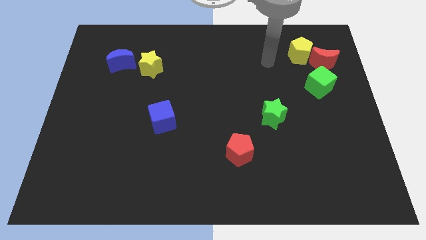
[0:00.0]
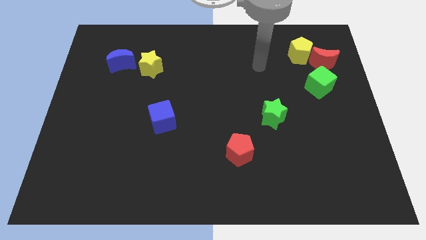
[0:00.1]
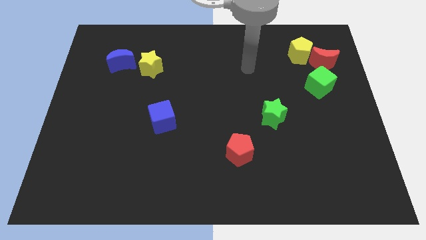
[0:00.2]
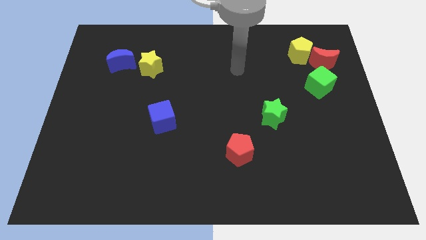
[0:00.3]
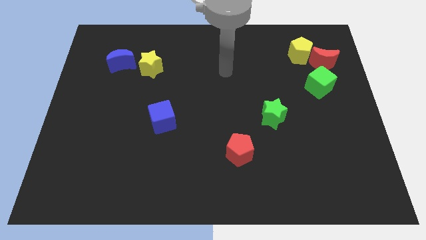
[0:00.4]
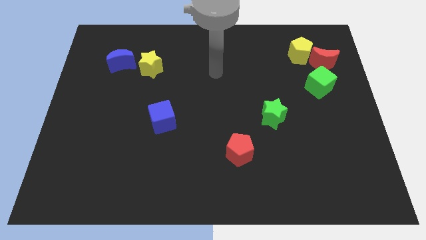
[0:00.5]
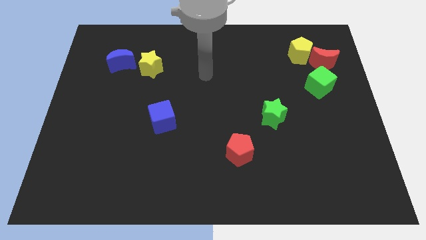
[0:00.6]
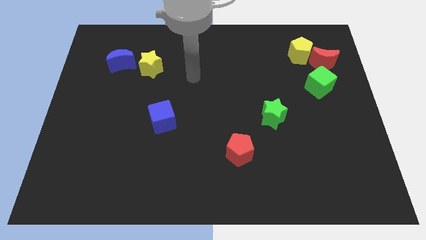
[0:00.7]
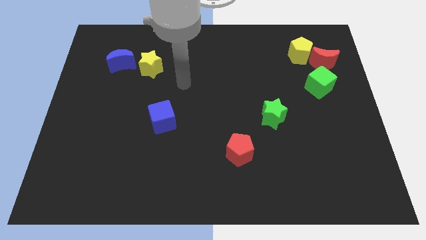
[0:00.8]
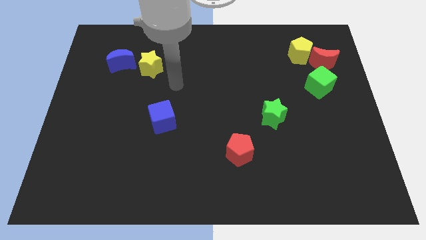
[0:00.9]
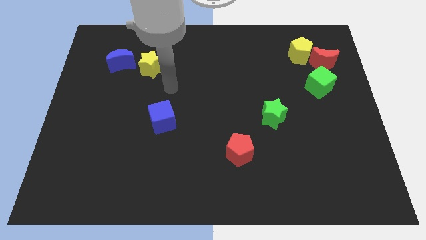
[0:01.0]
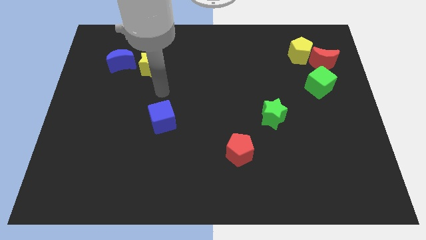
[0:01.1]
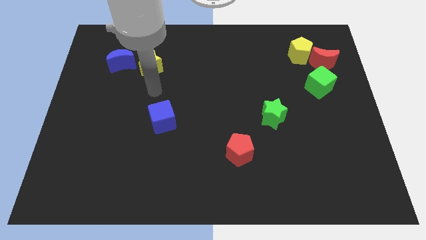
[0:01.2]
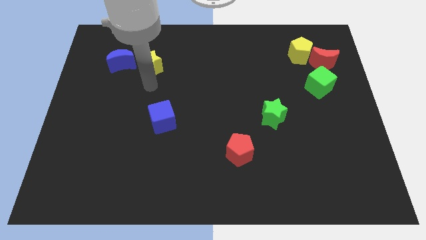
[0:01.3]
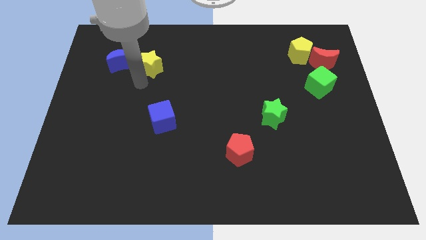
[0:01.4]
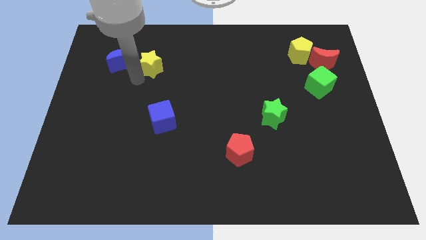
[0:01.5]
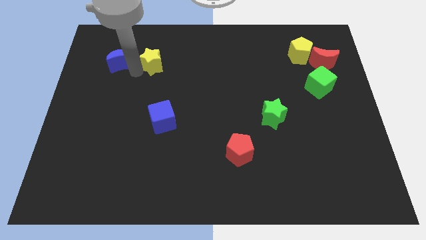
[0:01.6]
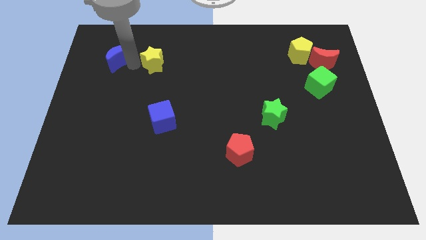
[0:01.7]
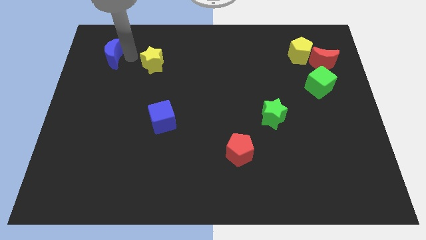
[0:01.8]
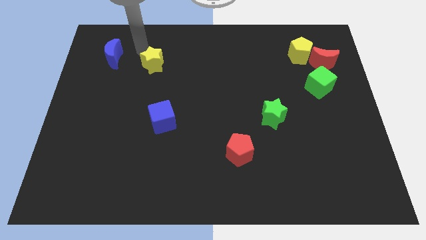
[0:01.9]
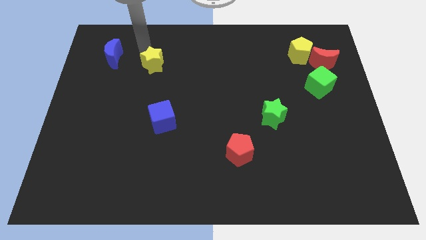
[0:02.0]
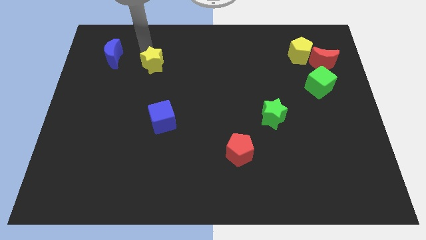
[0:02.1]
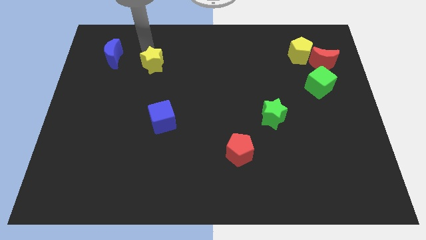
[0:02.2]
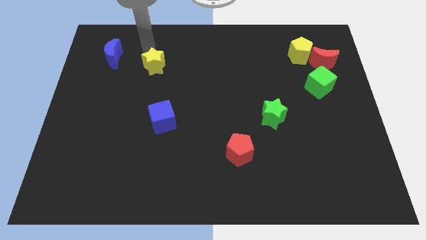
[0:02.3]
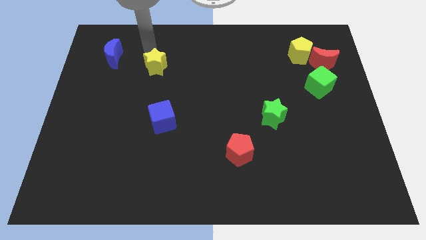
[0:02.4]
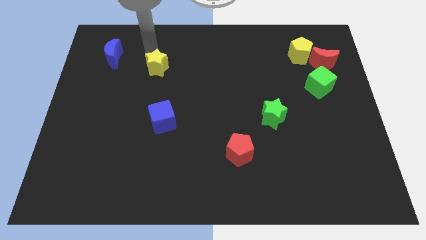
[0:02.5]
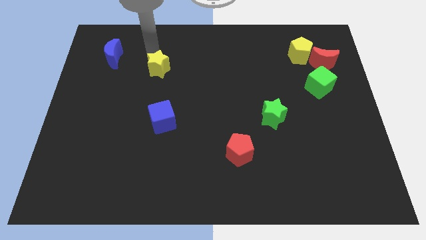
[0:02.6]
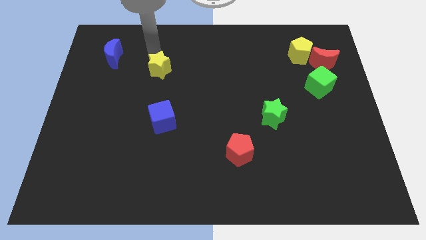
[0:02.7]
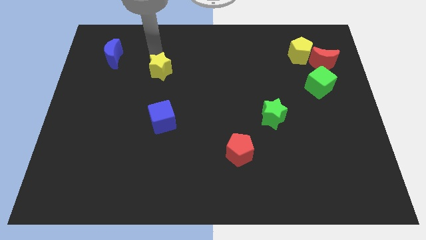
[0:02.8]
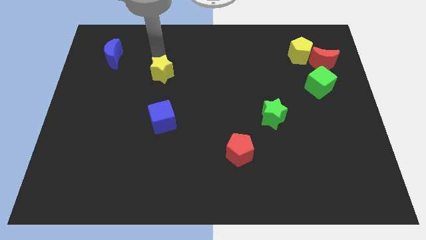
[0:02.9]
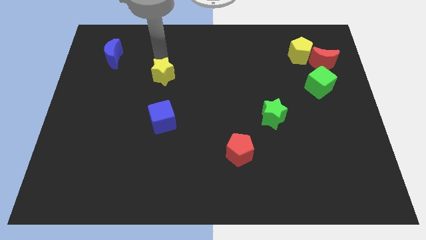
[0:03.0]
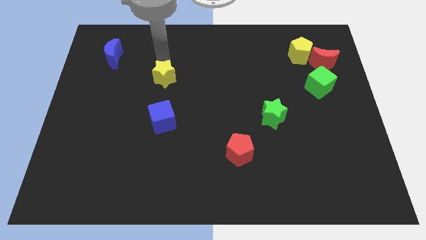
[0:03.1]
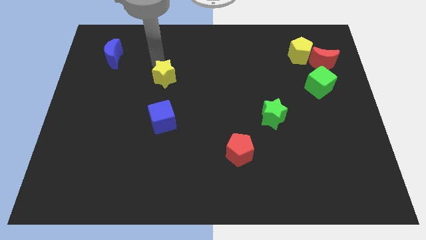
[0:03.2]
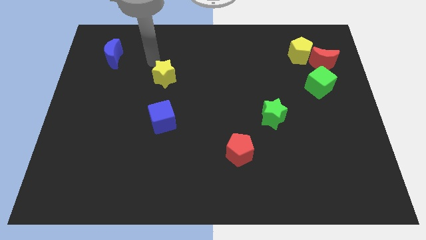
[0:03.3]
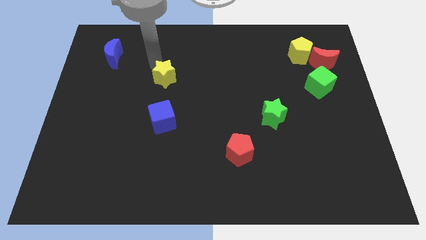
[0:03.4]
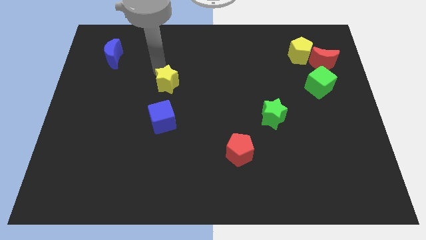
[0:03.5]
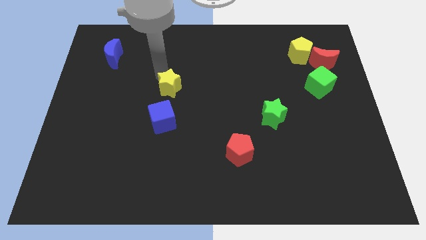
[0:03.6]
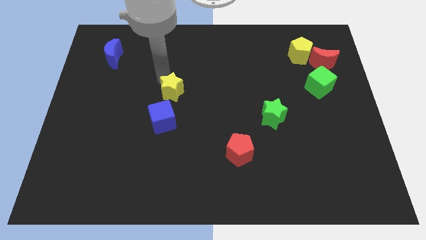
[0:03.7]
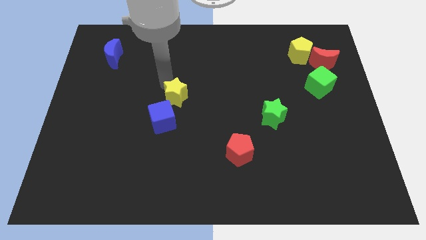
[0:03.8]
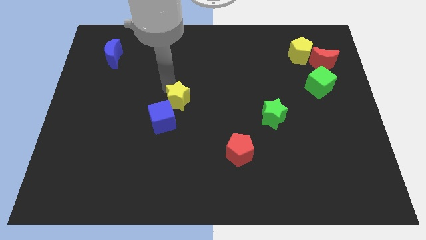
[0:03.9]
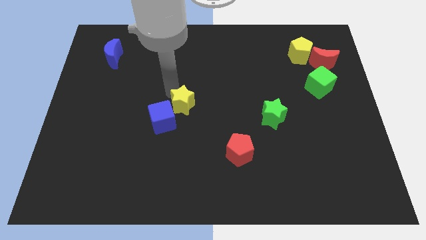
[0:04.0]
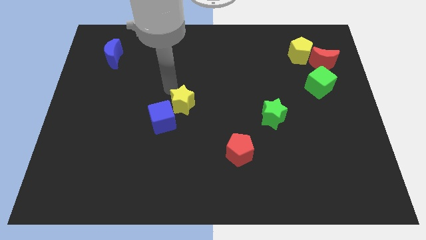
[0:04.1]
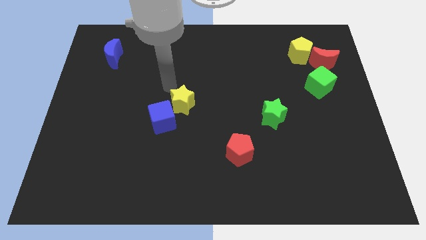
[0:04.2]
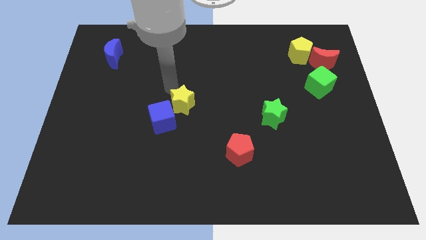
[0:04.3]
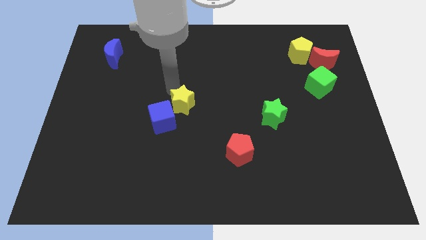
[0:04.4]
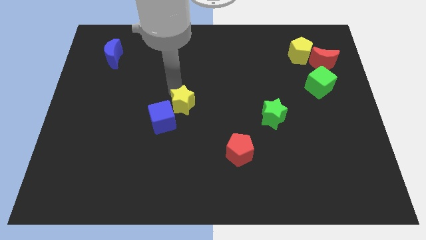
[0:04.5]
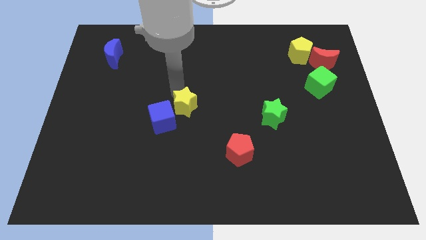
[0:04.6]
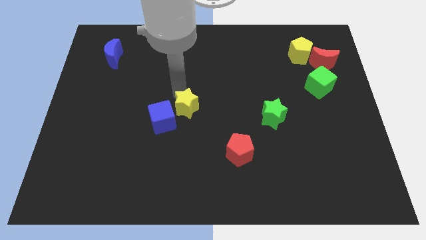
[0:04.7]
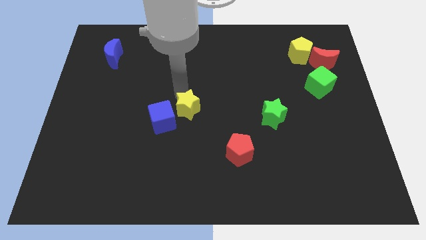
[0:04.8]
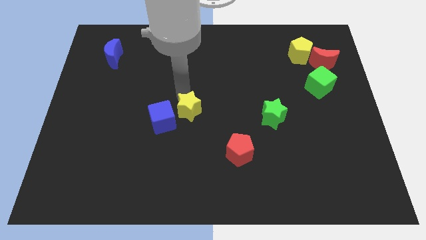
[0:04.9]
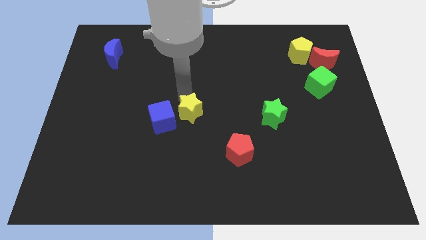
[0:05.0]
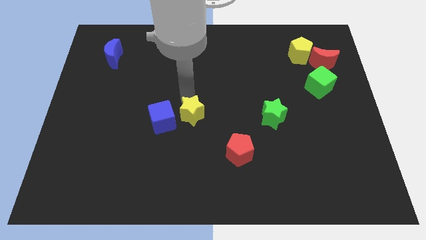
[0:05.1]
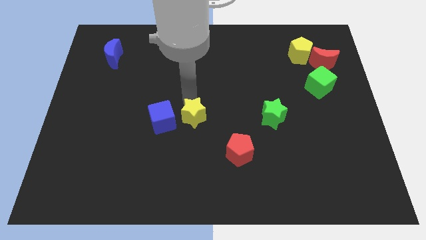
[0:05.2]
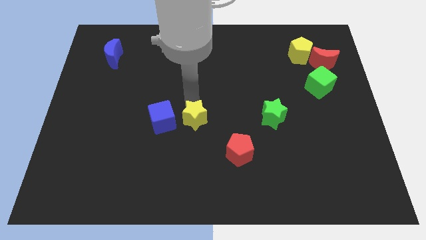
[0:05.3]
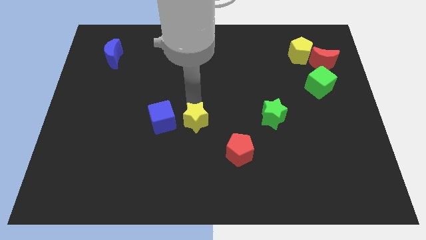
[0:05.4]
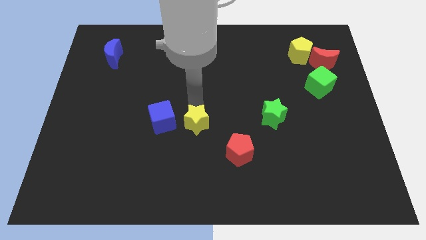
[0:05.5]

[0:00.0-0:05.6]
slide the yellow star to the bottom right side of the blue cube

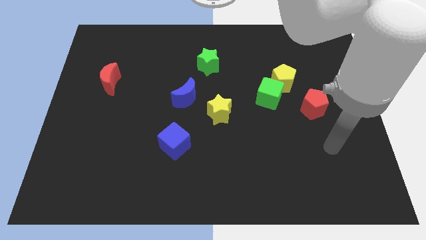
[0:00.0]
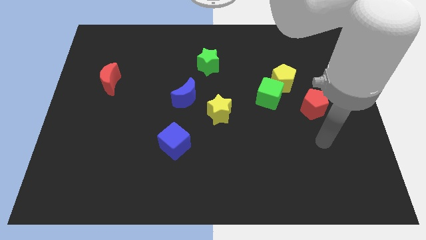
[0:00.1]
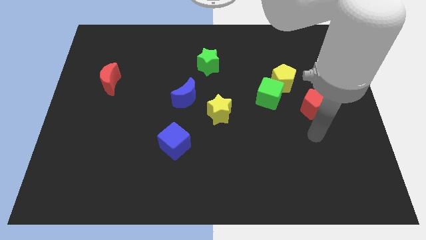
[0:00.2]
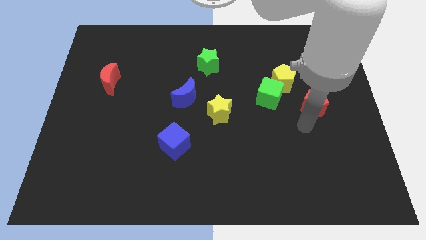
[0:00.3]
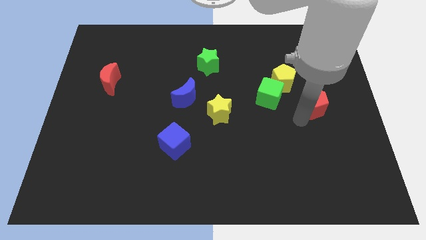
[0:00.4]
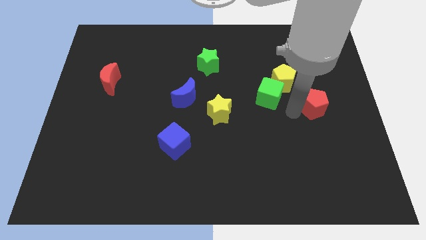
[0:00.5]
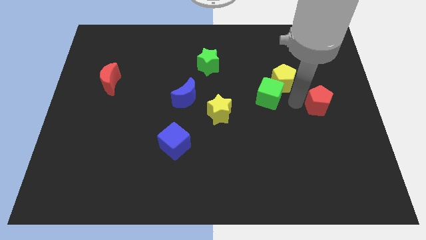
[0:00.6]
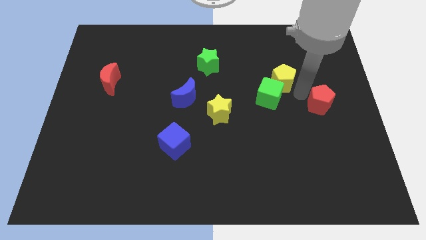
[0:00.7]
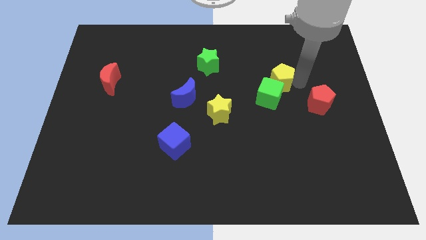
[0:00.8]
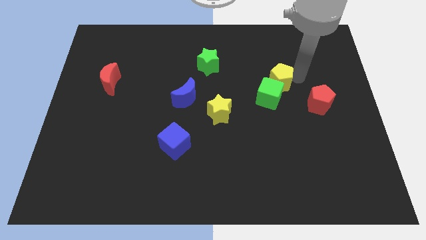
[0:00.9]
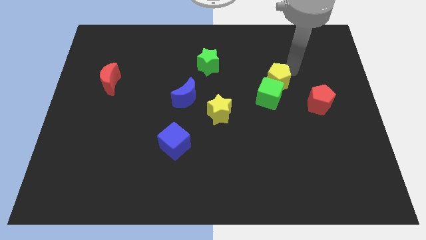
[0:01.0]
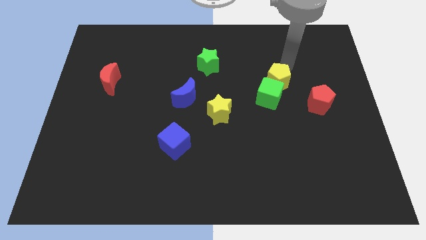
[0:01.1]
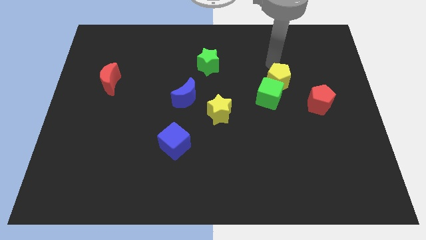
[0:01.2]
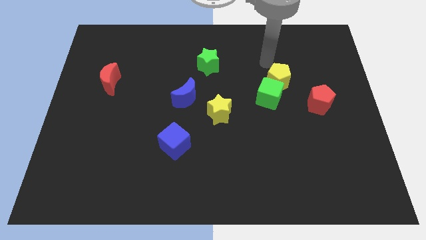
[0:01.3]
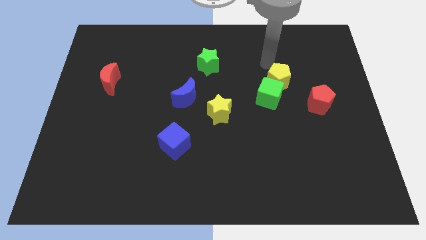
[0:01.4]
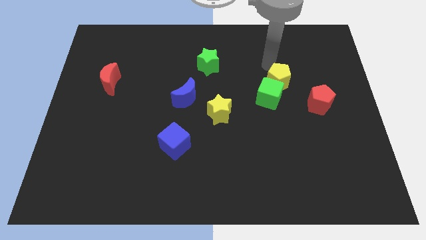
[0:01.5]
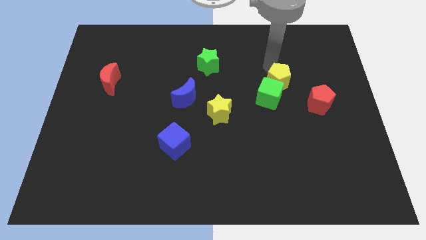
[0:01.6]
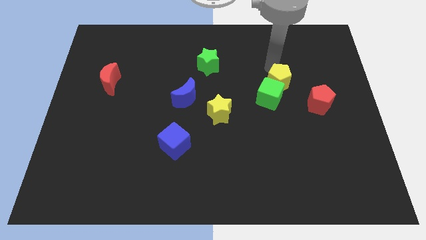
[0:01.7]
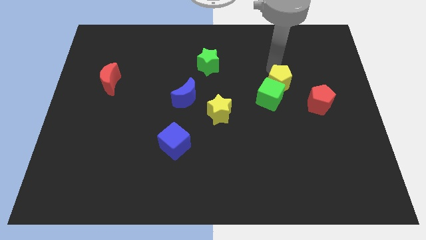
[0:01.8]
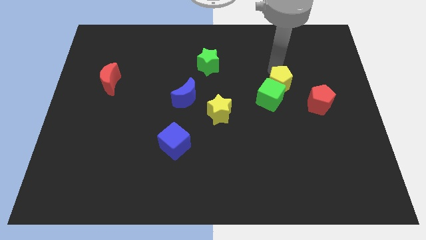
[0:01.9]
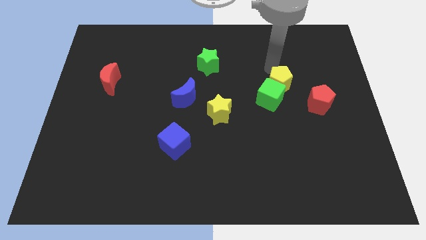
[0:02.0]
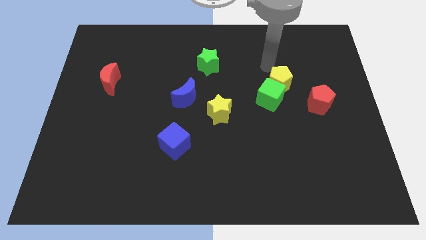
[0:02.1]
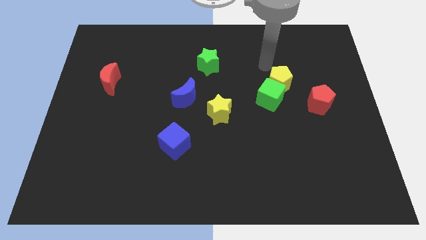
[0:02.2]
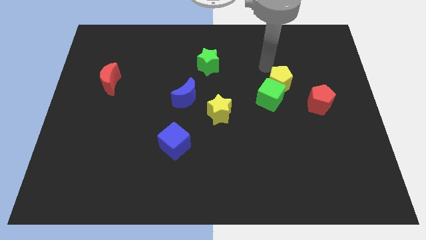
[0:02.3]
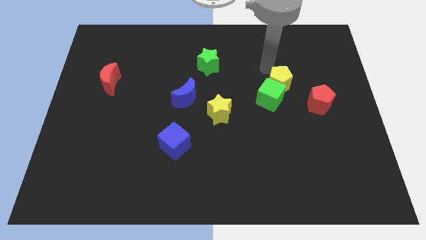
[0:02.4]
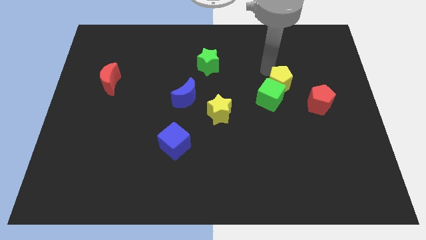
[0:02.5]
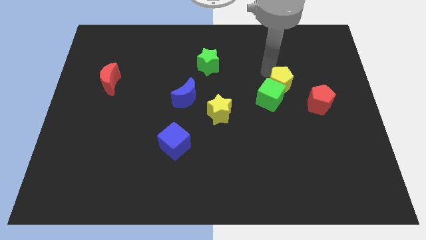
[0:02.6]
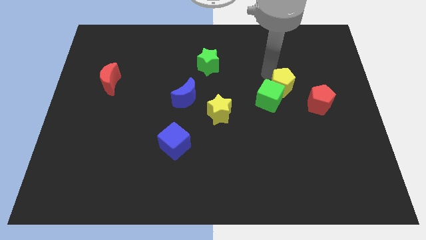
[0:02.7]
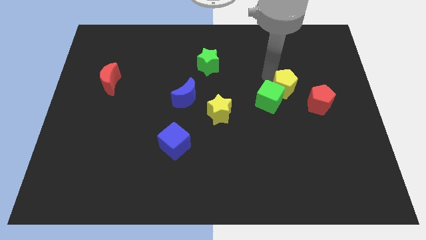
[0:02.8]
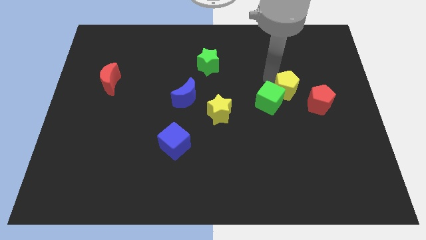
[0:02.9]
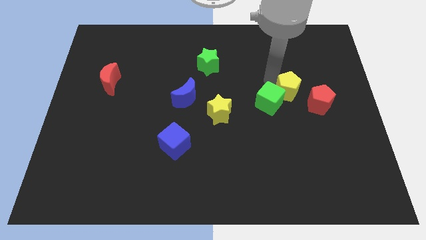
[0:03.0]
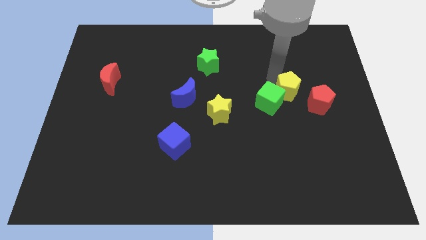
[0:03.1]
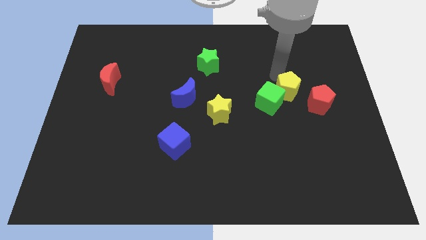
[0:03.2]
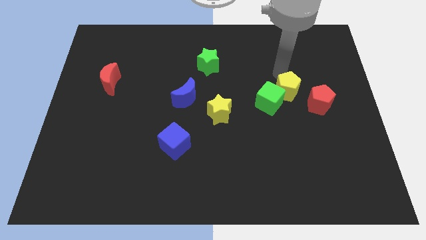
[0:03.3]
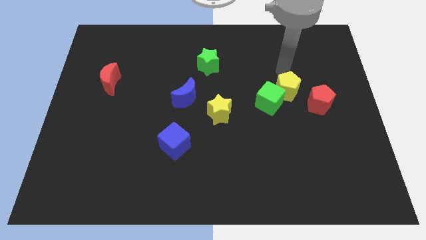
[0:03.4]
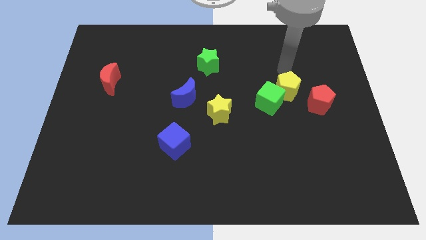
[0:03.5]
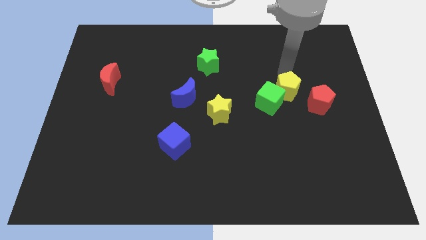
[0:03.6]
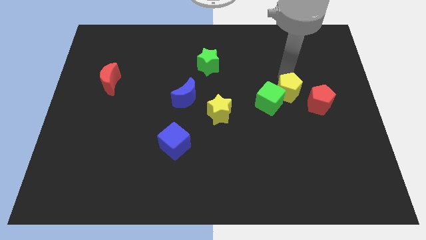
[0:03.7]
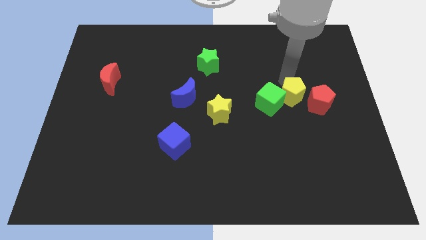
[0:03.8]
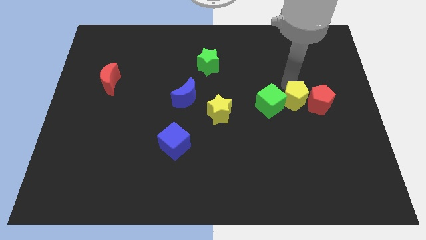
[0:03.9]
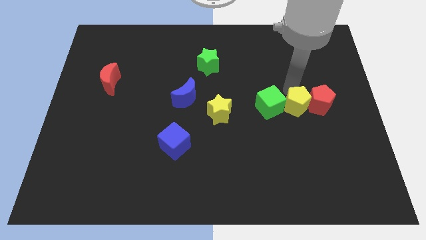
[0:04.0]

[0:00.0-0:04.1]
slide the yellow pentagon to the bottom left of the red pentagon
